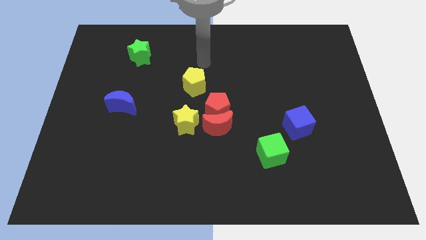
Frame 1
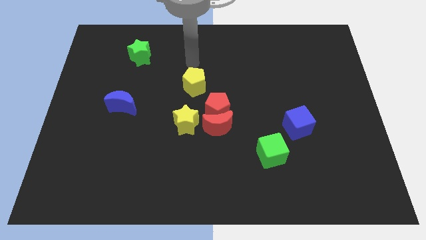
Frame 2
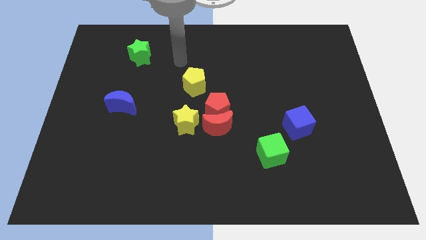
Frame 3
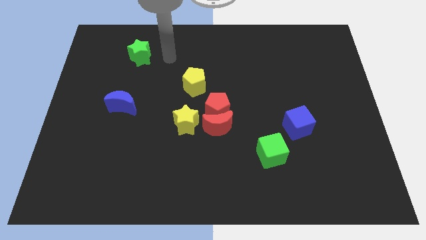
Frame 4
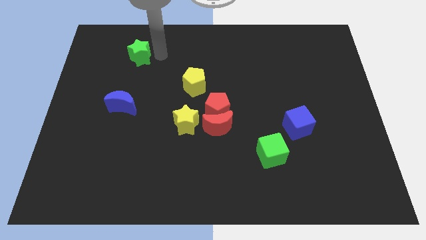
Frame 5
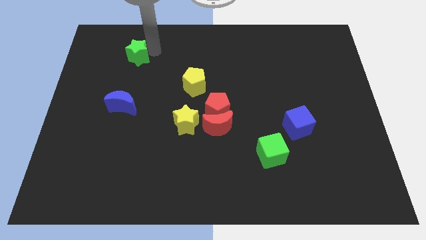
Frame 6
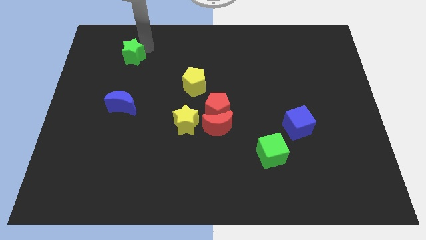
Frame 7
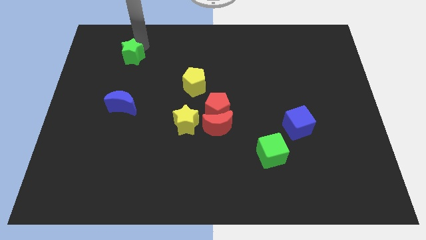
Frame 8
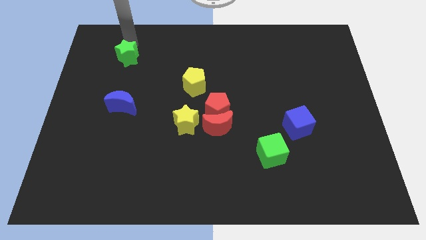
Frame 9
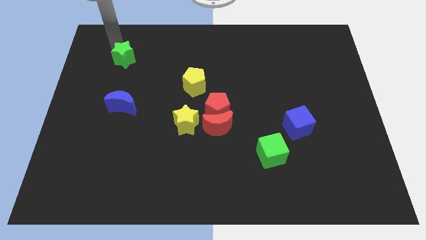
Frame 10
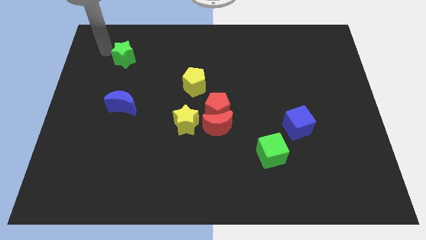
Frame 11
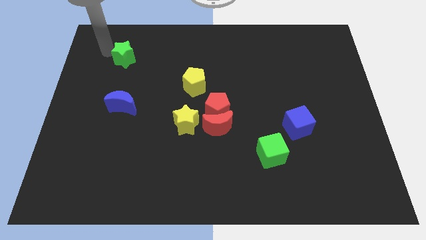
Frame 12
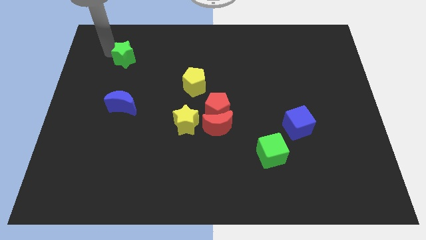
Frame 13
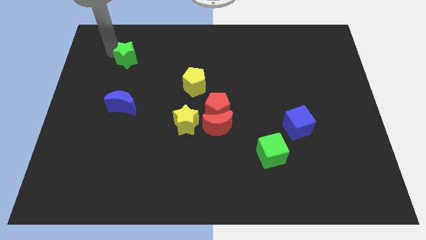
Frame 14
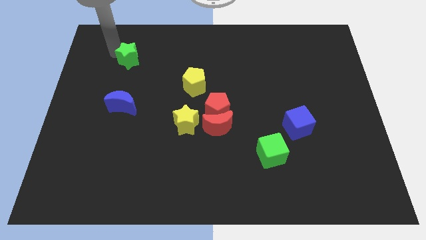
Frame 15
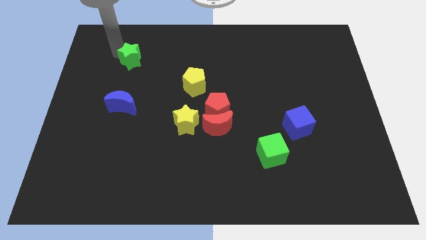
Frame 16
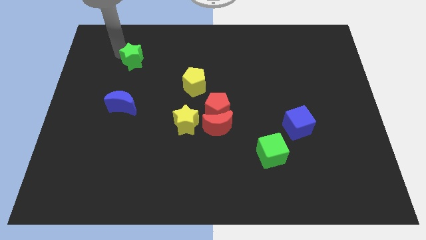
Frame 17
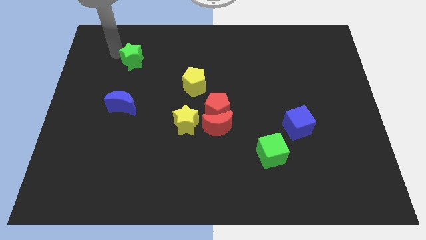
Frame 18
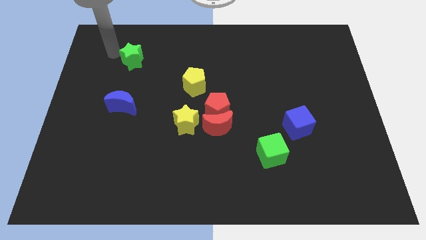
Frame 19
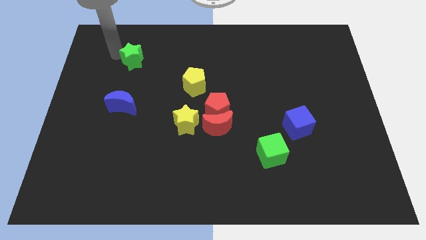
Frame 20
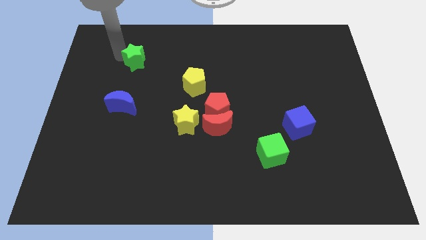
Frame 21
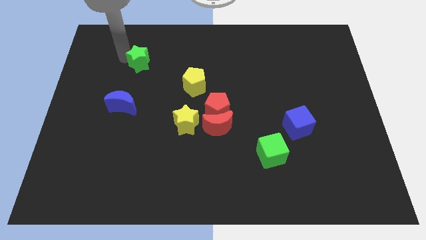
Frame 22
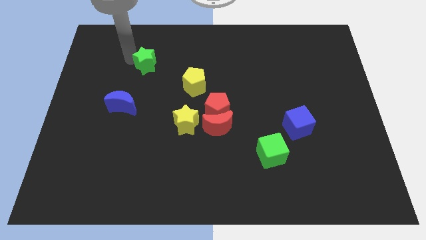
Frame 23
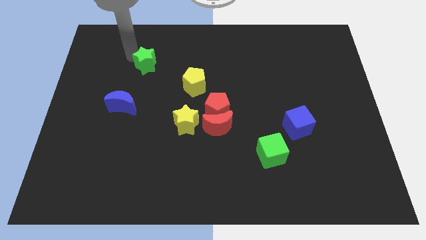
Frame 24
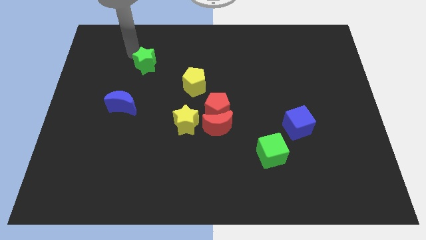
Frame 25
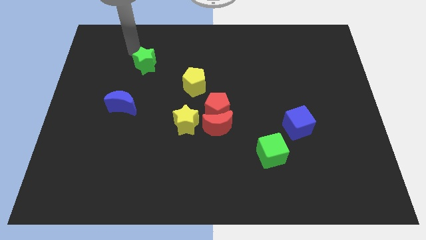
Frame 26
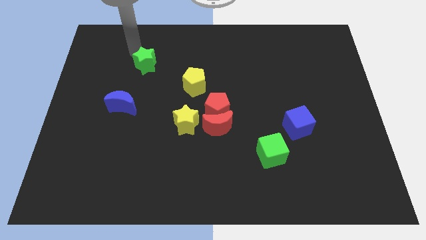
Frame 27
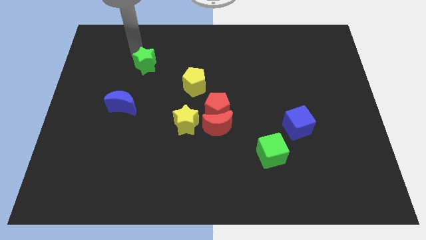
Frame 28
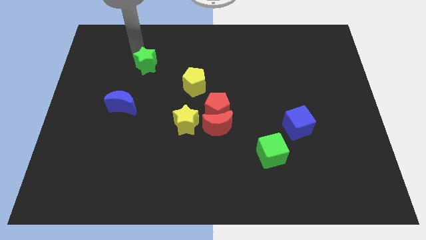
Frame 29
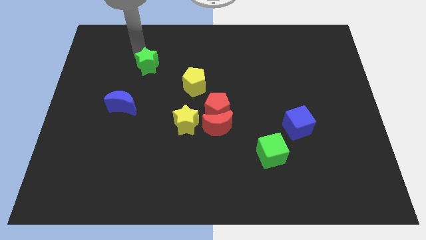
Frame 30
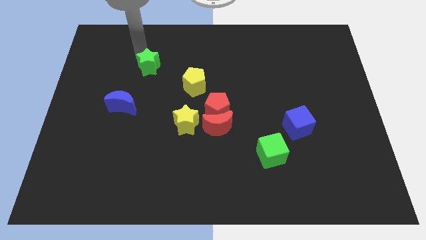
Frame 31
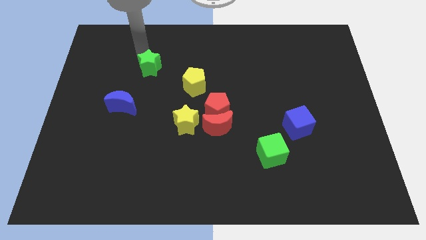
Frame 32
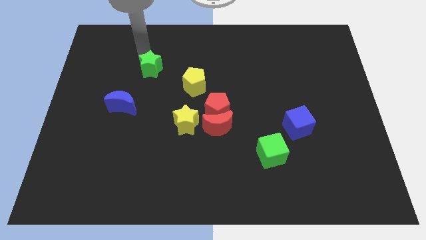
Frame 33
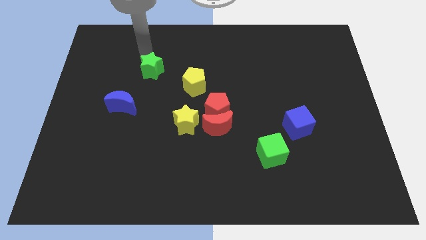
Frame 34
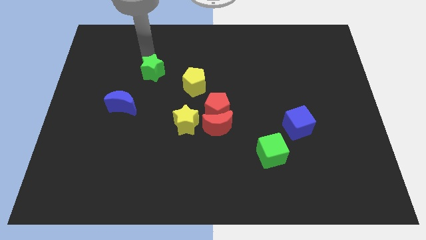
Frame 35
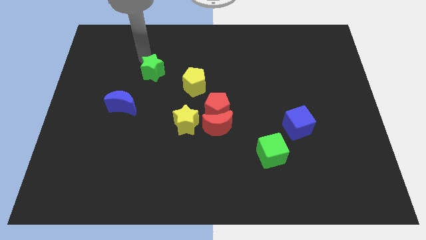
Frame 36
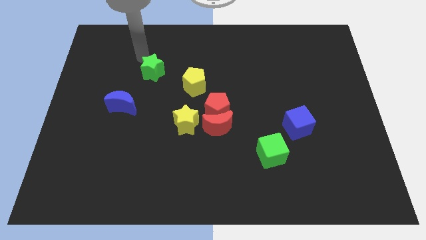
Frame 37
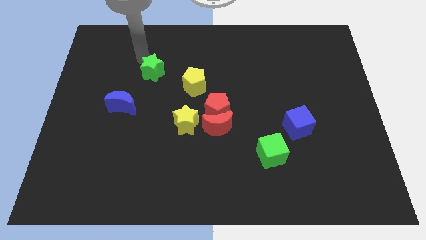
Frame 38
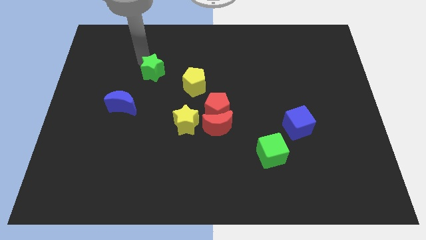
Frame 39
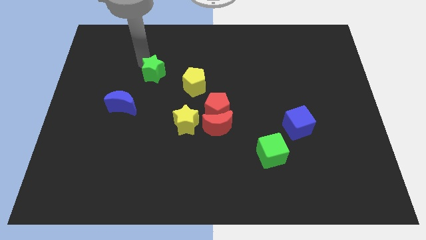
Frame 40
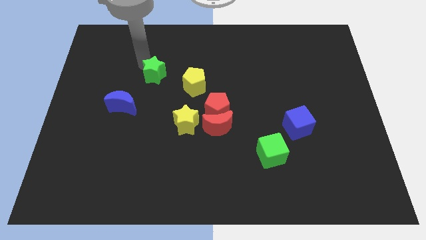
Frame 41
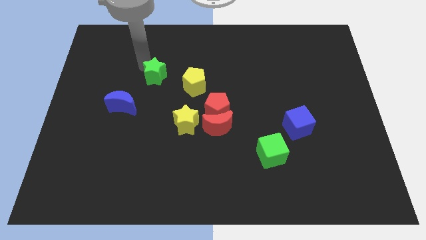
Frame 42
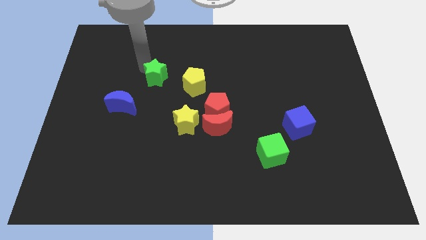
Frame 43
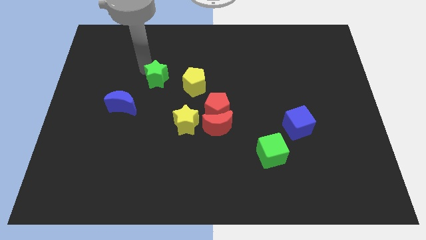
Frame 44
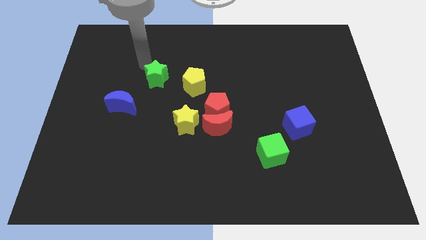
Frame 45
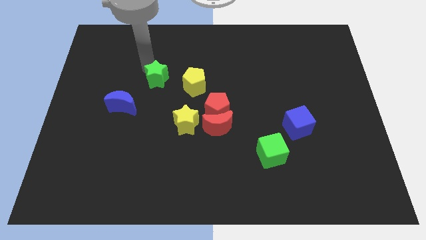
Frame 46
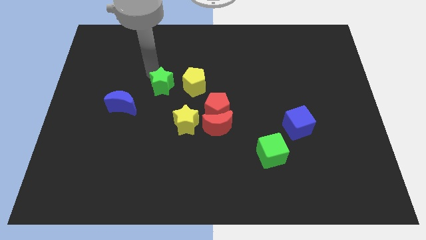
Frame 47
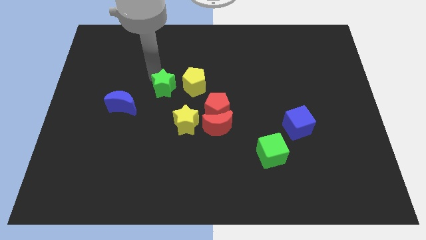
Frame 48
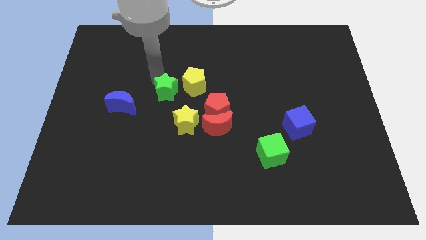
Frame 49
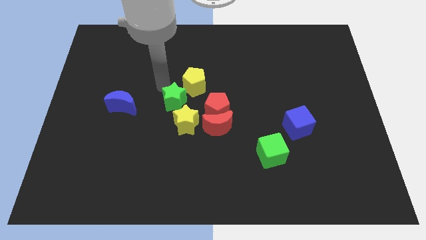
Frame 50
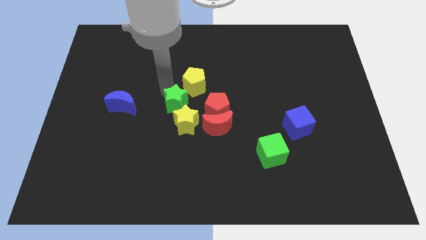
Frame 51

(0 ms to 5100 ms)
slide the green star next to the yellow star

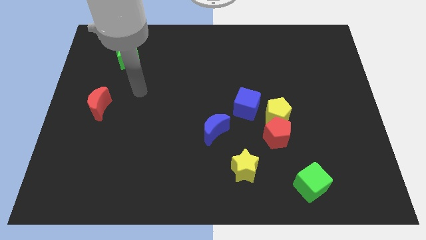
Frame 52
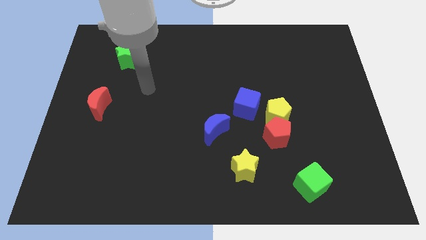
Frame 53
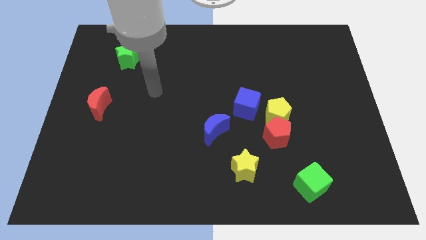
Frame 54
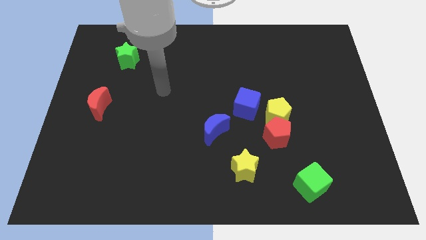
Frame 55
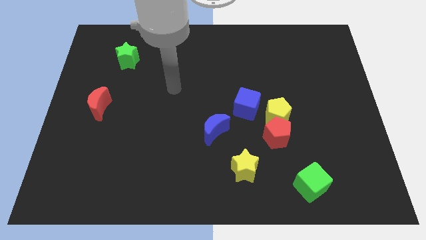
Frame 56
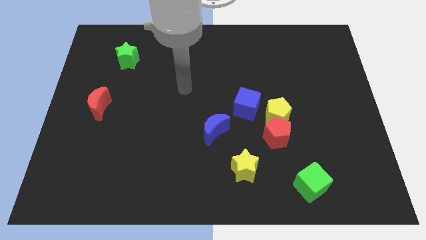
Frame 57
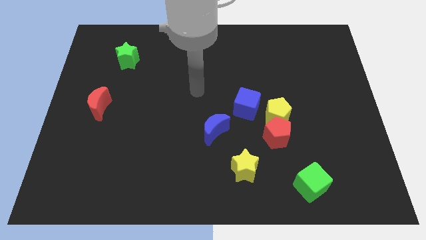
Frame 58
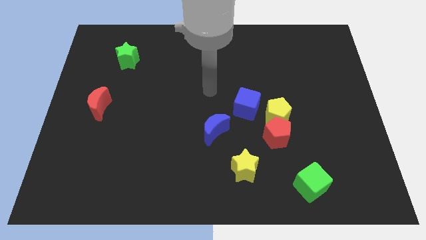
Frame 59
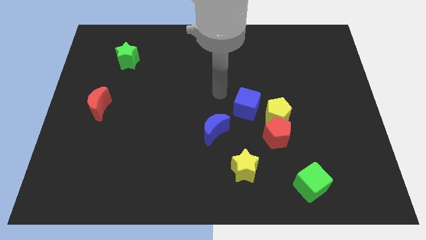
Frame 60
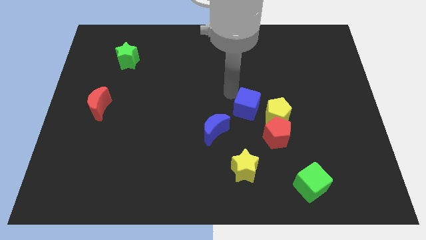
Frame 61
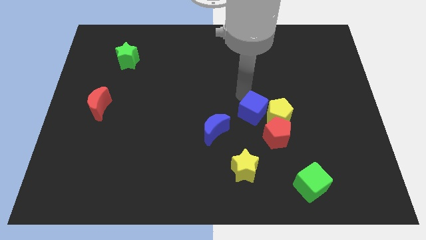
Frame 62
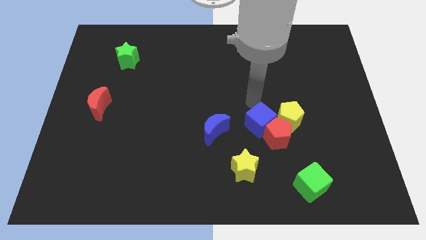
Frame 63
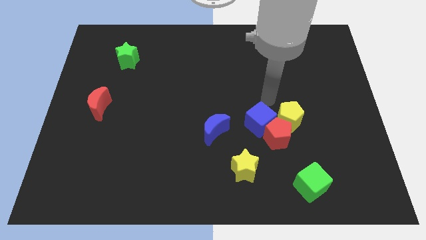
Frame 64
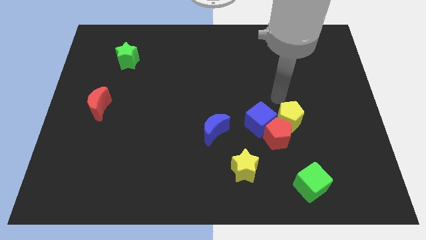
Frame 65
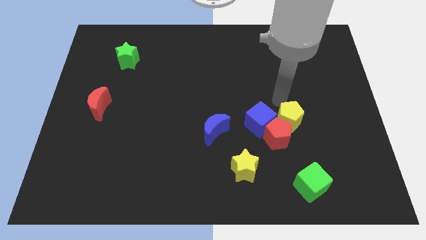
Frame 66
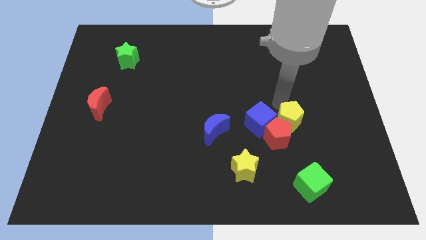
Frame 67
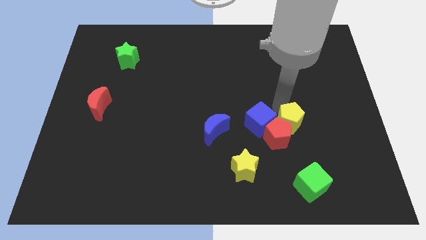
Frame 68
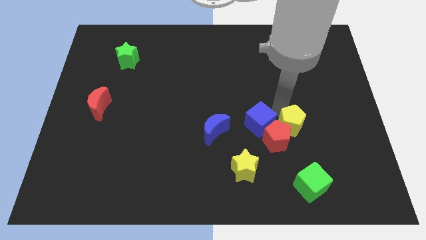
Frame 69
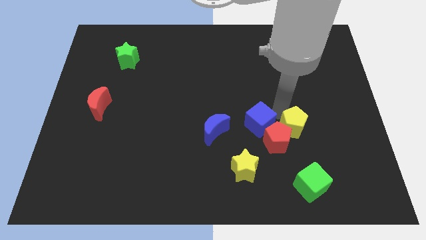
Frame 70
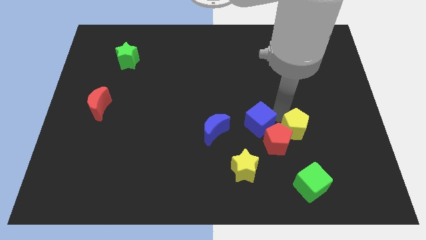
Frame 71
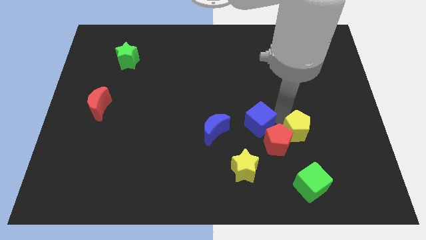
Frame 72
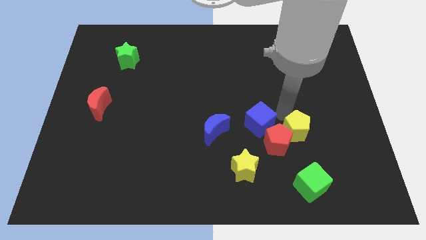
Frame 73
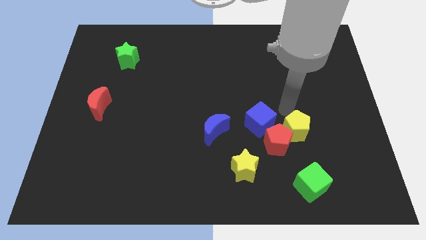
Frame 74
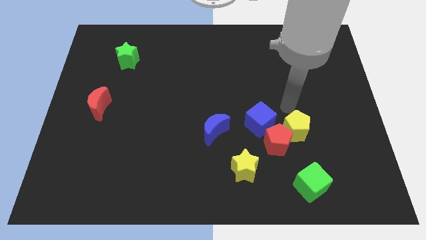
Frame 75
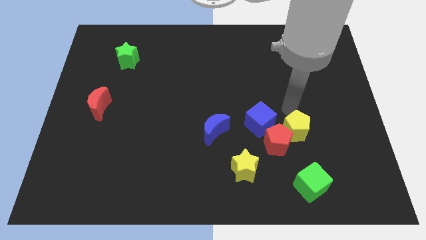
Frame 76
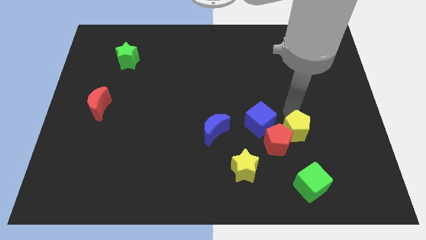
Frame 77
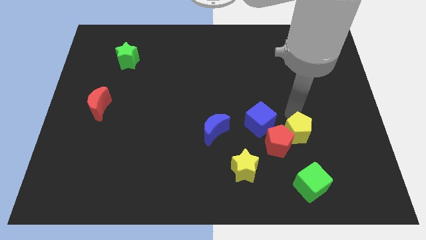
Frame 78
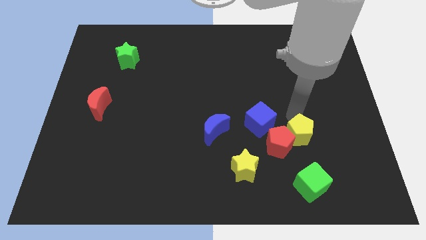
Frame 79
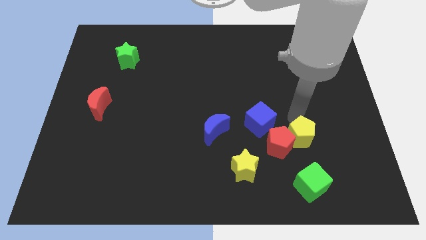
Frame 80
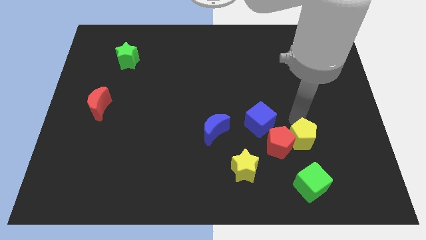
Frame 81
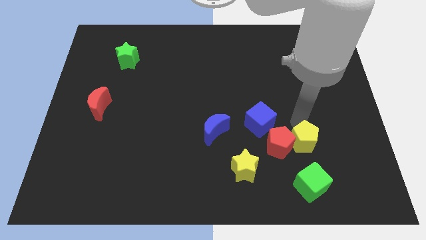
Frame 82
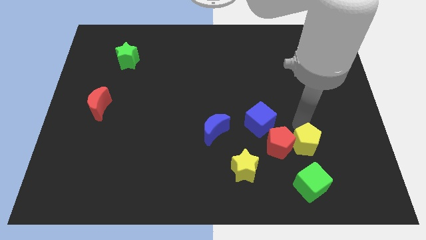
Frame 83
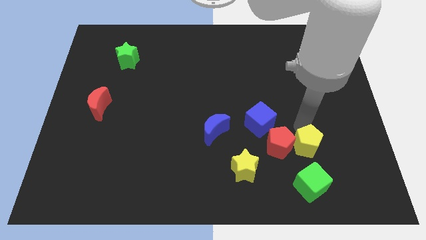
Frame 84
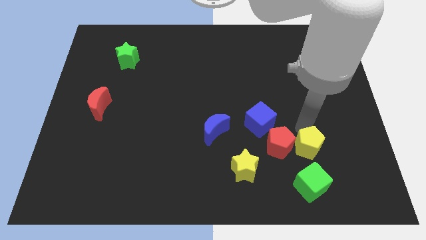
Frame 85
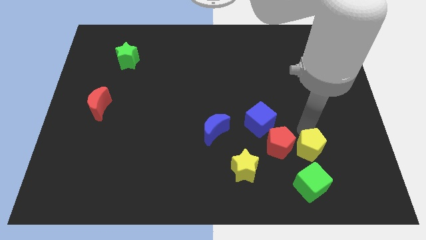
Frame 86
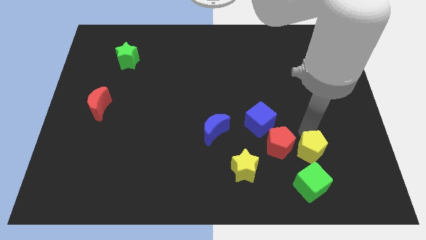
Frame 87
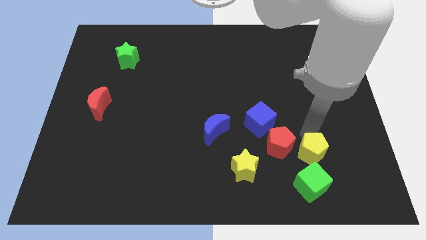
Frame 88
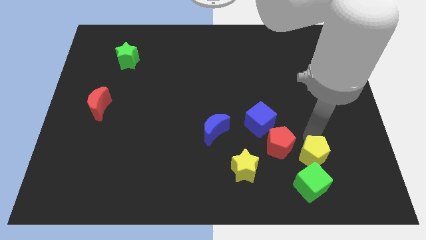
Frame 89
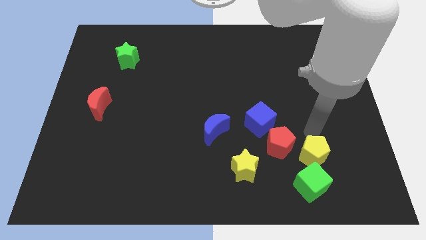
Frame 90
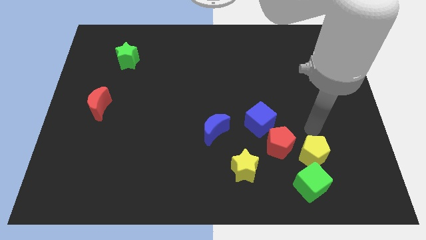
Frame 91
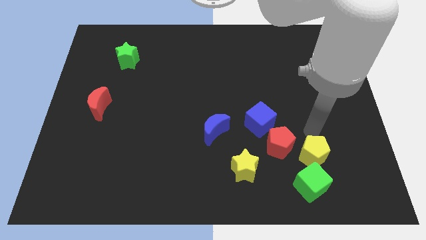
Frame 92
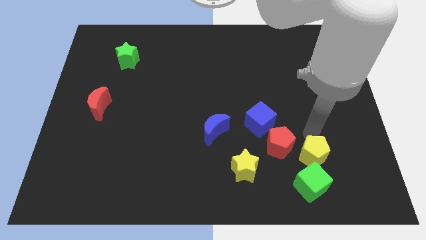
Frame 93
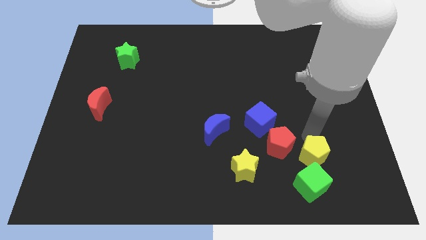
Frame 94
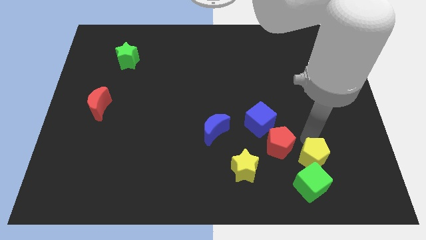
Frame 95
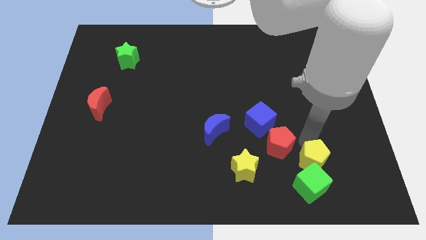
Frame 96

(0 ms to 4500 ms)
slide the yellow pentagon next to the green cube
